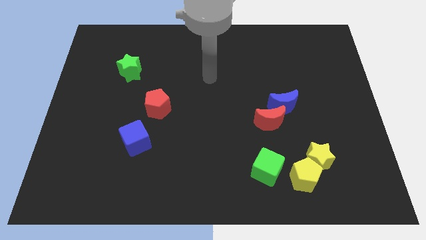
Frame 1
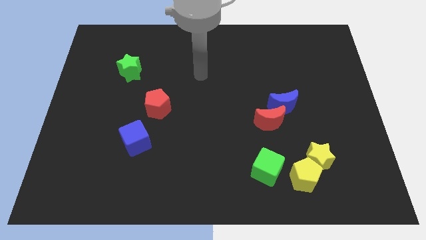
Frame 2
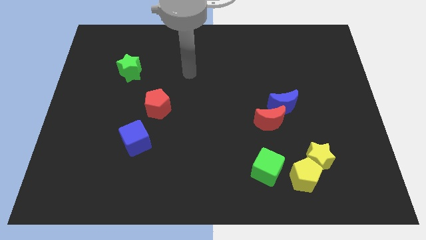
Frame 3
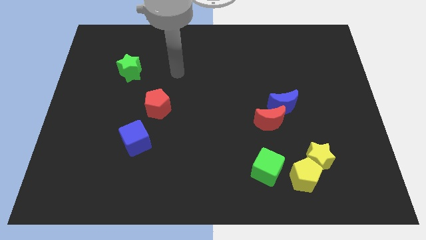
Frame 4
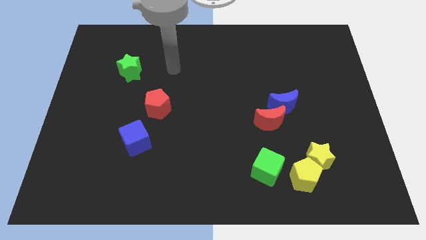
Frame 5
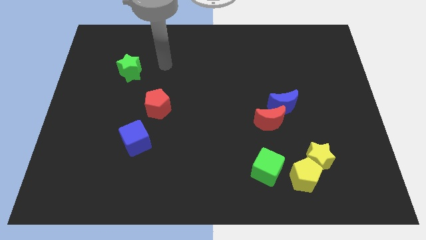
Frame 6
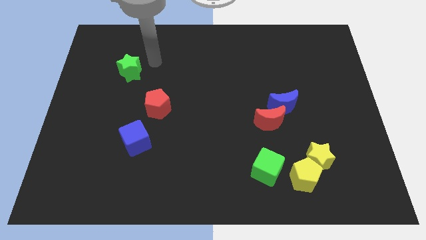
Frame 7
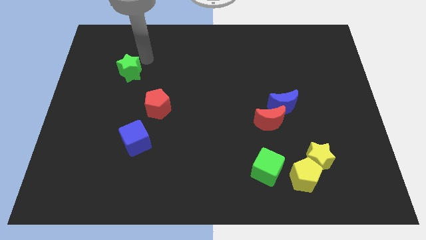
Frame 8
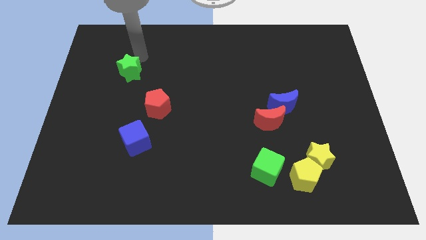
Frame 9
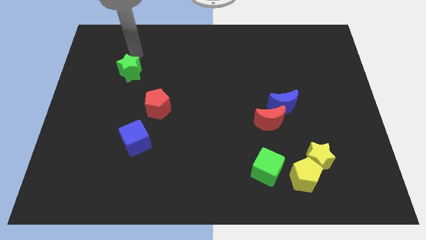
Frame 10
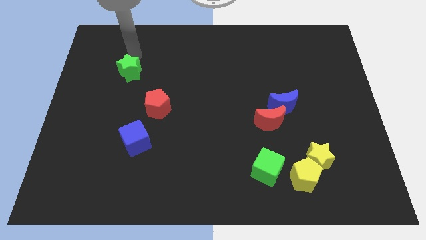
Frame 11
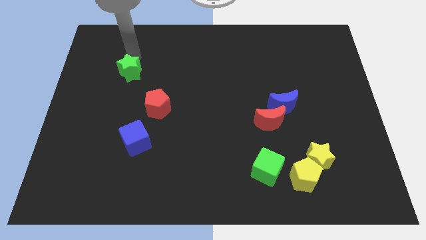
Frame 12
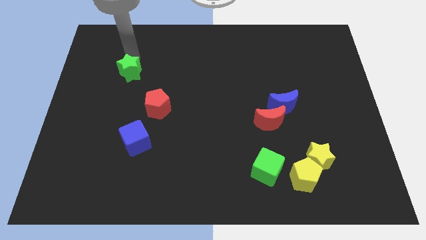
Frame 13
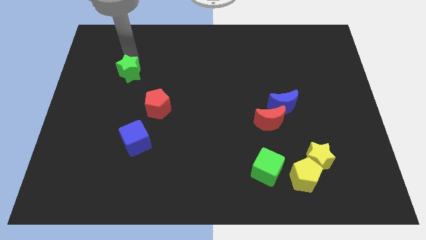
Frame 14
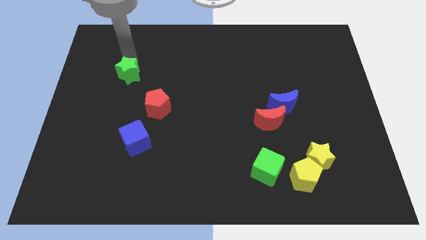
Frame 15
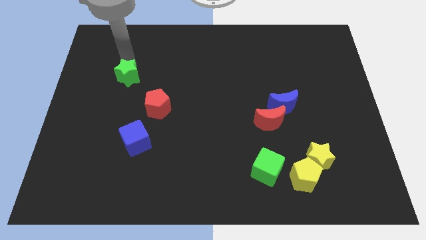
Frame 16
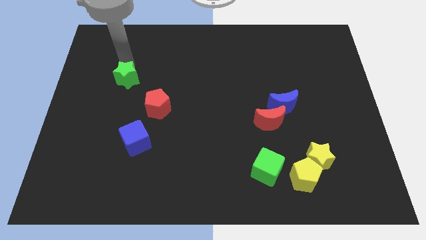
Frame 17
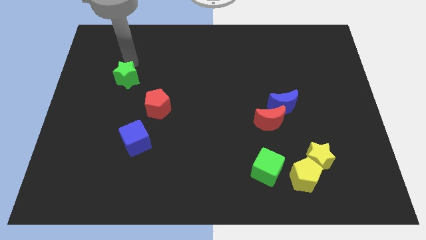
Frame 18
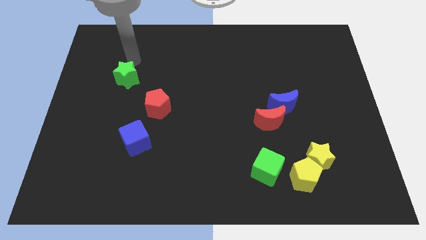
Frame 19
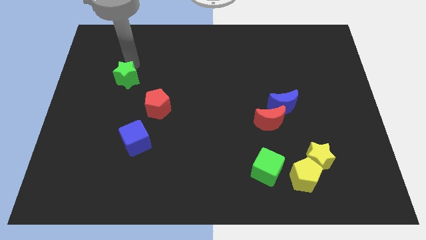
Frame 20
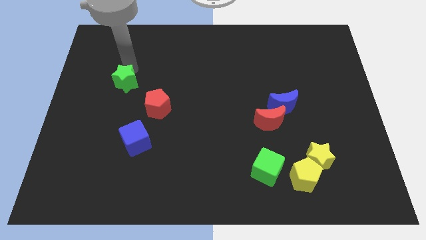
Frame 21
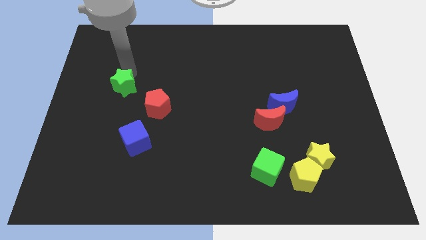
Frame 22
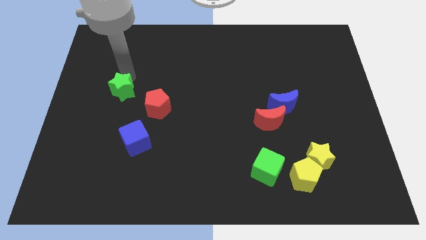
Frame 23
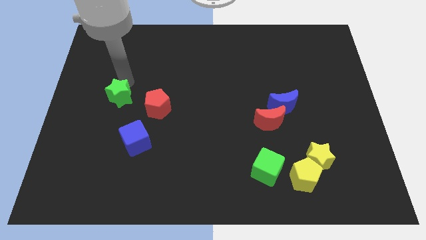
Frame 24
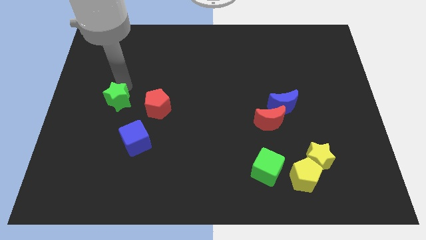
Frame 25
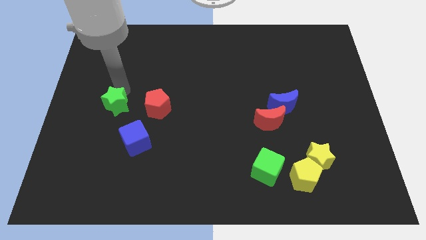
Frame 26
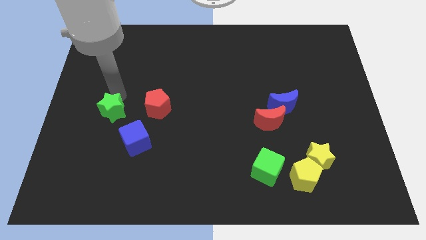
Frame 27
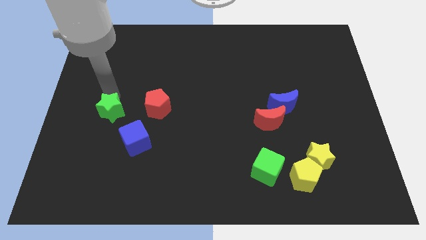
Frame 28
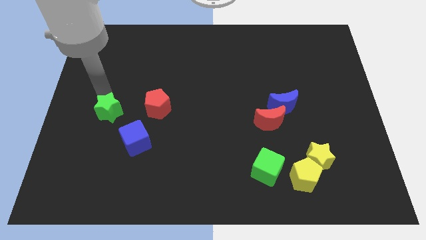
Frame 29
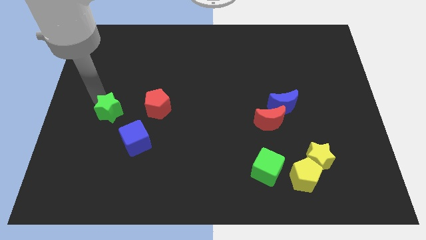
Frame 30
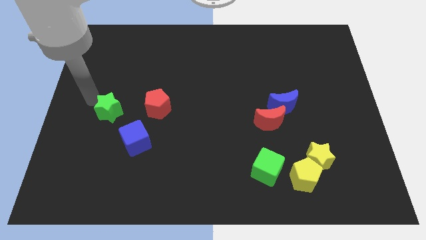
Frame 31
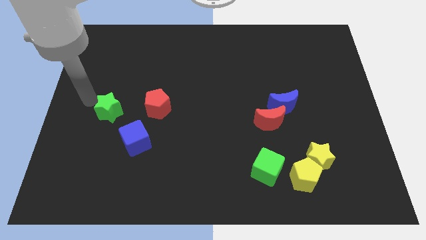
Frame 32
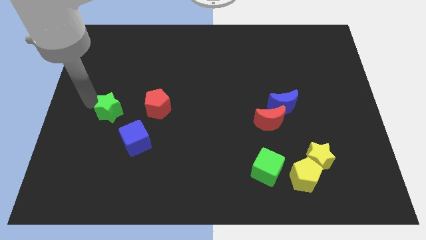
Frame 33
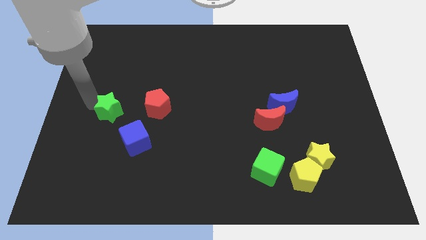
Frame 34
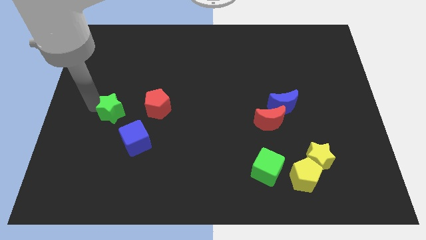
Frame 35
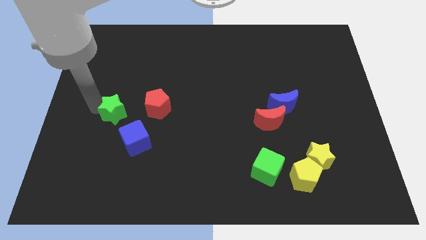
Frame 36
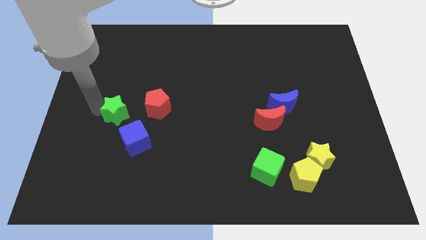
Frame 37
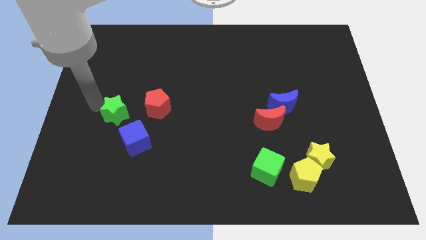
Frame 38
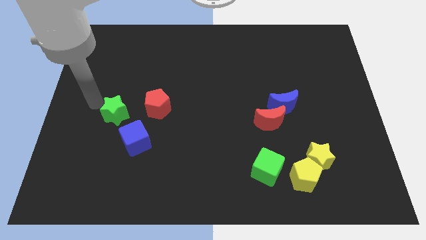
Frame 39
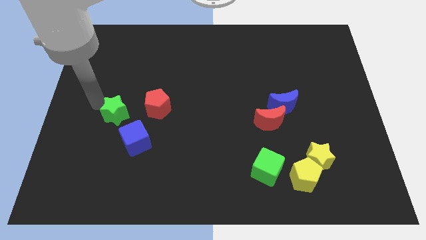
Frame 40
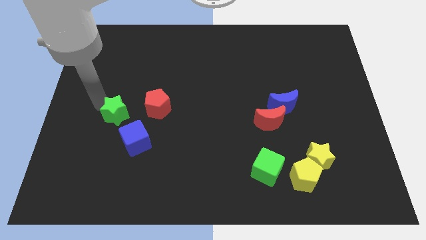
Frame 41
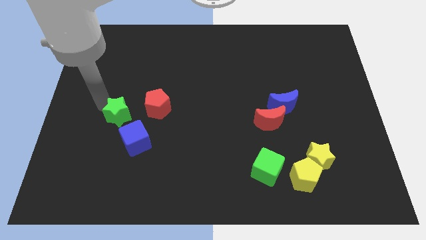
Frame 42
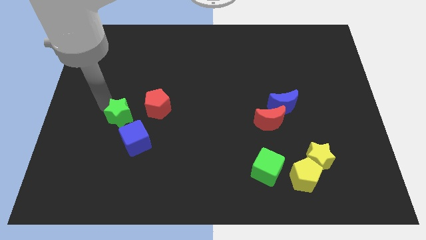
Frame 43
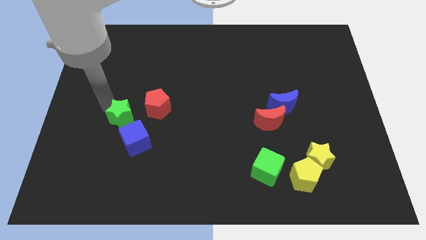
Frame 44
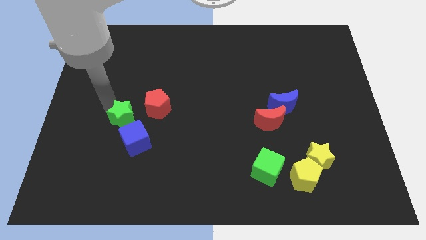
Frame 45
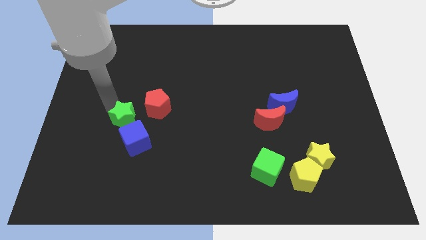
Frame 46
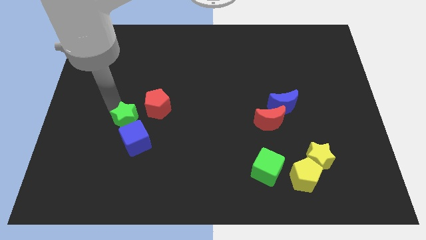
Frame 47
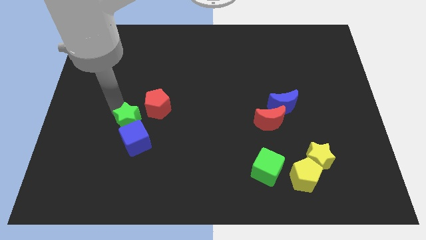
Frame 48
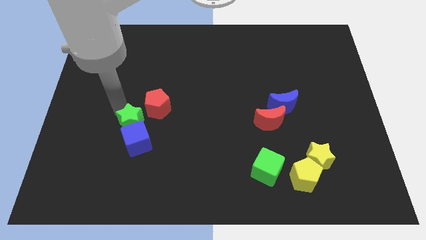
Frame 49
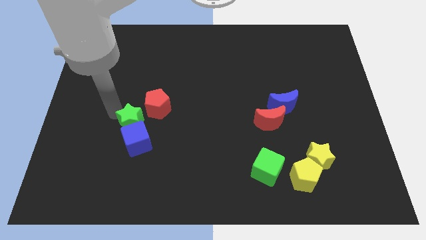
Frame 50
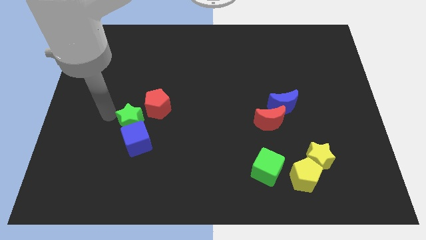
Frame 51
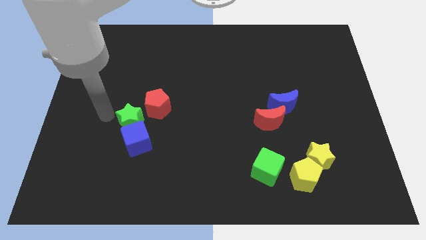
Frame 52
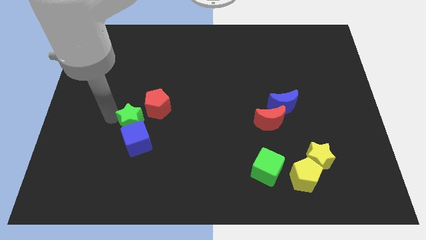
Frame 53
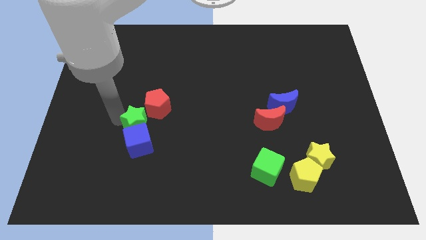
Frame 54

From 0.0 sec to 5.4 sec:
move the green star to the bottom side of the red pentagon

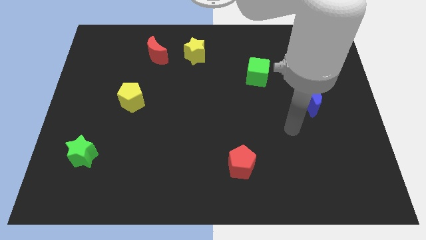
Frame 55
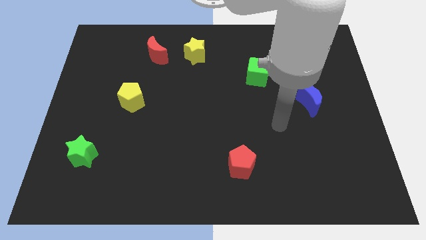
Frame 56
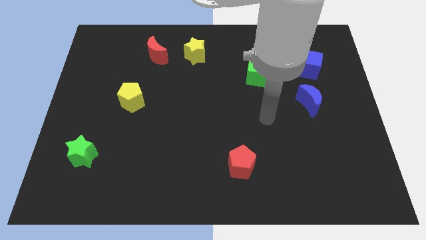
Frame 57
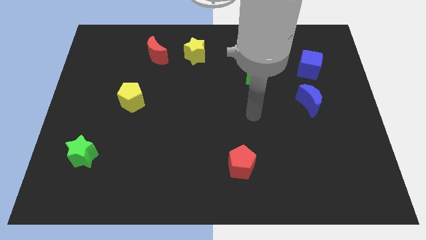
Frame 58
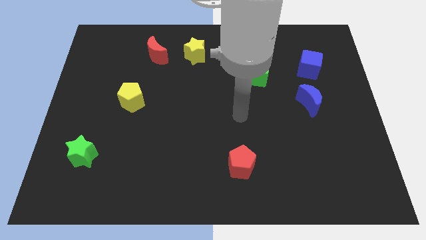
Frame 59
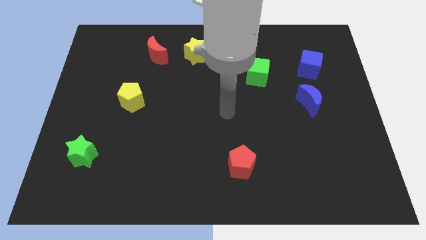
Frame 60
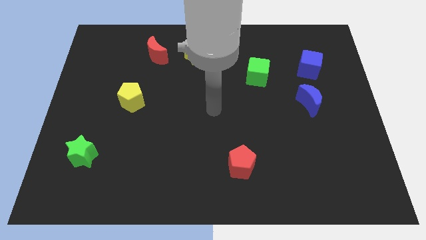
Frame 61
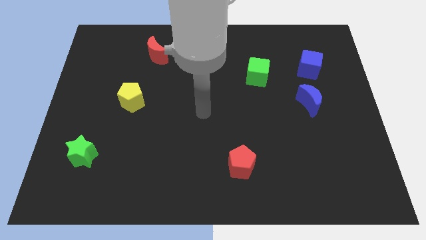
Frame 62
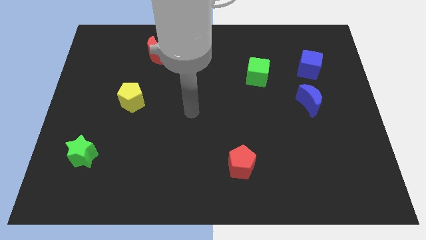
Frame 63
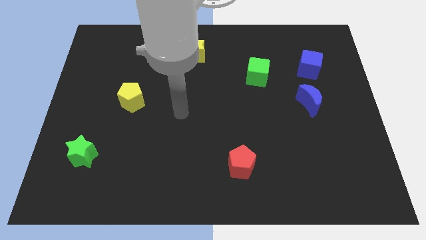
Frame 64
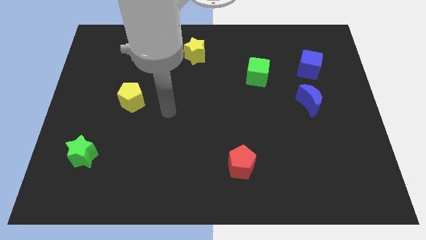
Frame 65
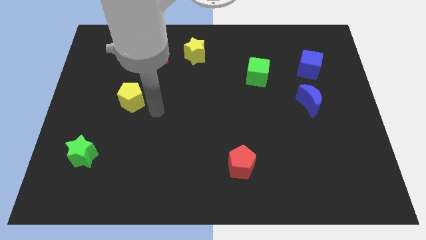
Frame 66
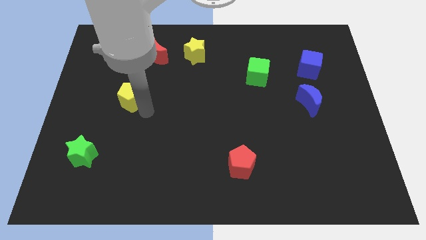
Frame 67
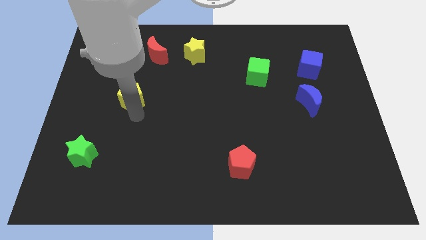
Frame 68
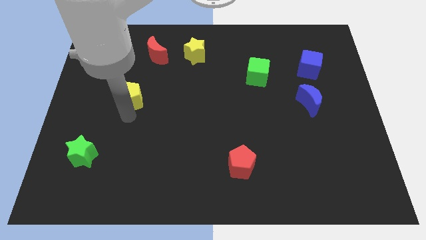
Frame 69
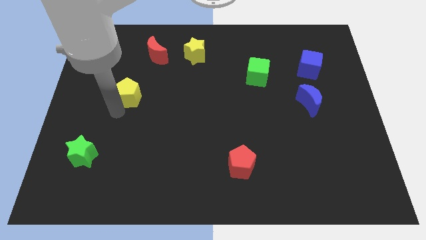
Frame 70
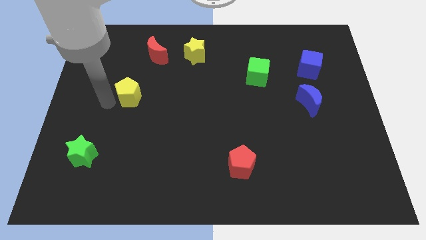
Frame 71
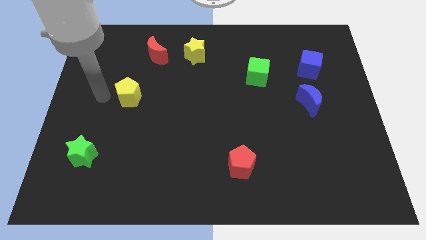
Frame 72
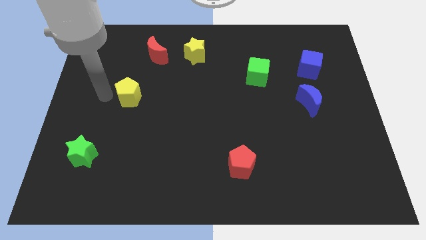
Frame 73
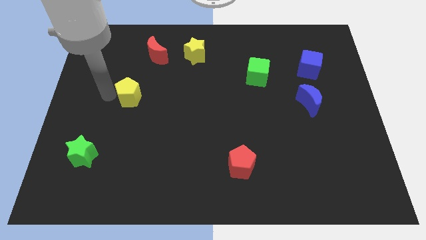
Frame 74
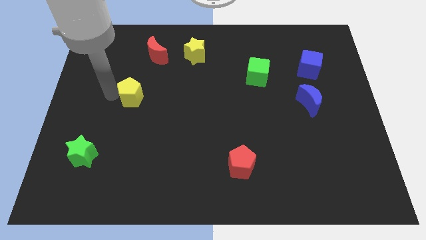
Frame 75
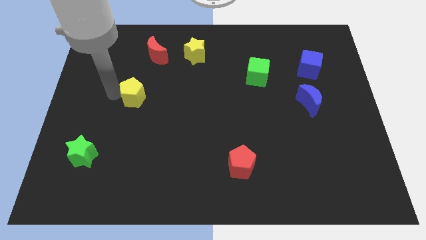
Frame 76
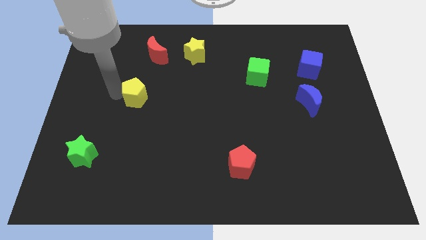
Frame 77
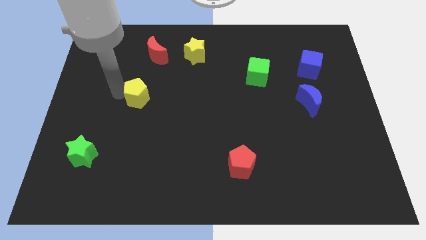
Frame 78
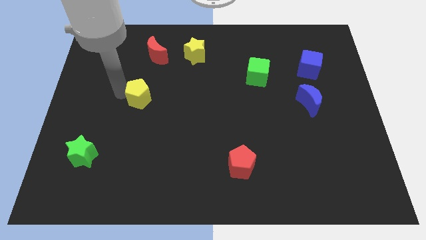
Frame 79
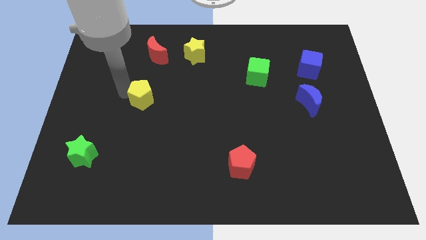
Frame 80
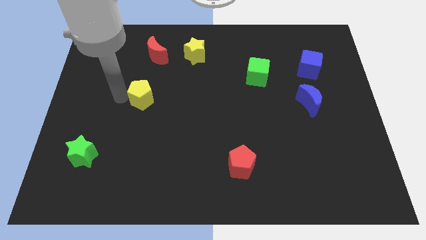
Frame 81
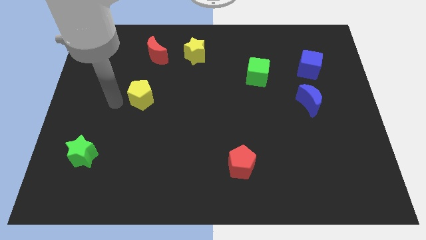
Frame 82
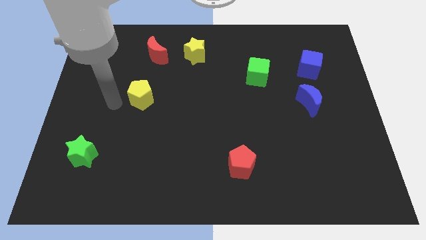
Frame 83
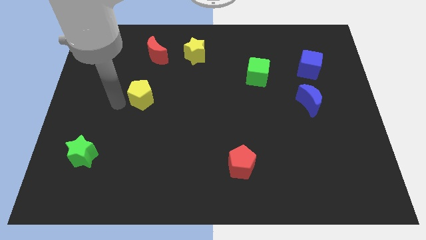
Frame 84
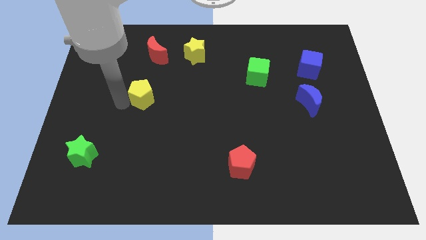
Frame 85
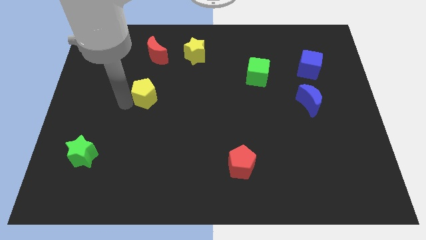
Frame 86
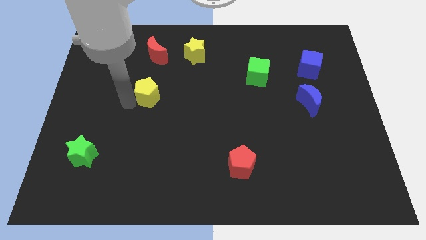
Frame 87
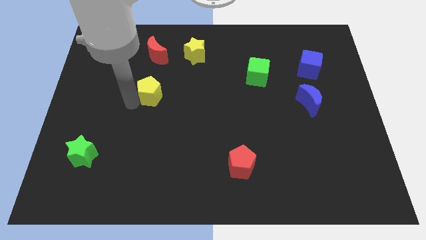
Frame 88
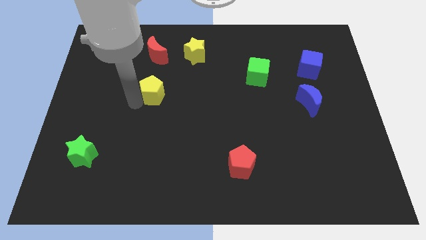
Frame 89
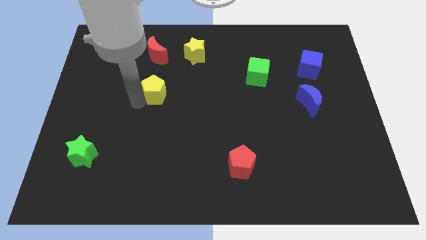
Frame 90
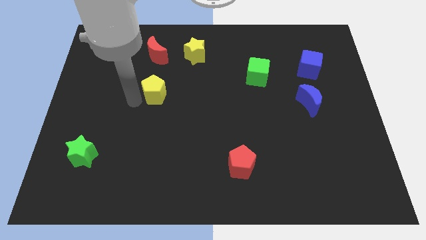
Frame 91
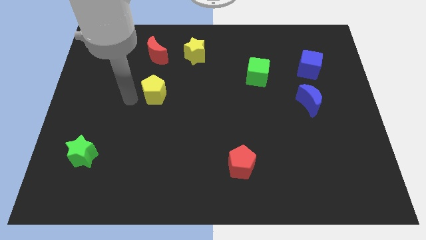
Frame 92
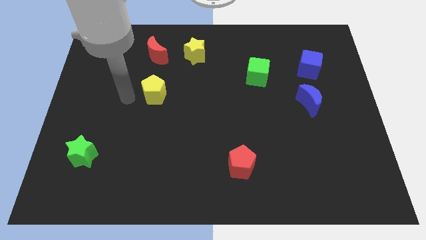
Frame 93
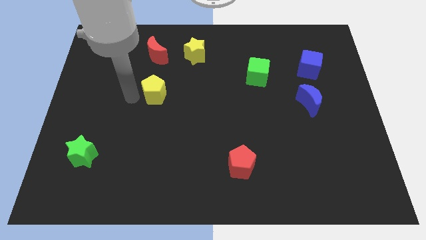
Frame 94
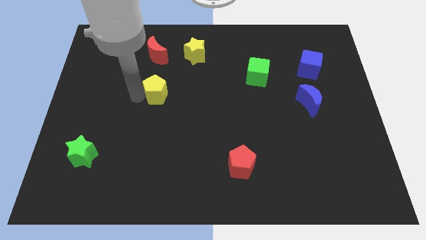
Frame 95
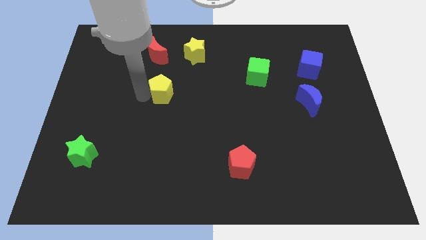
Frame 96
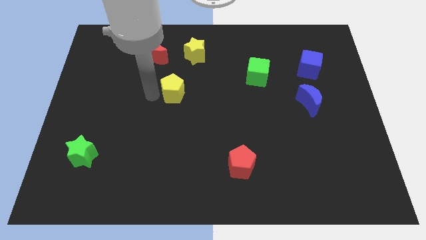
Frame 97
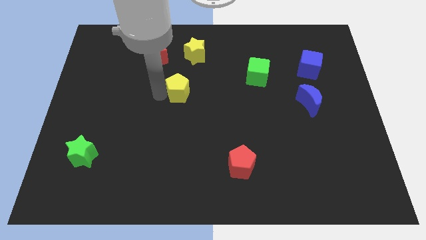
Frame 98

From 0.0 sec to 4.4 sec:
slide the yellow pentagon to the bottom of the yellow star
